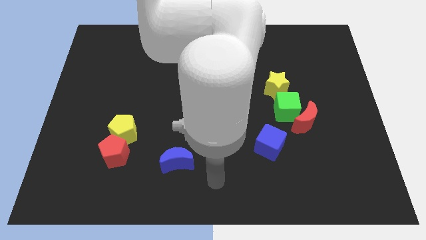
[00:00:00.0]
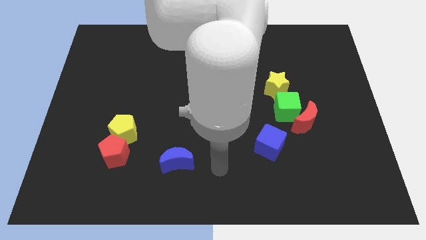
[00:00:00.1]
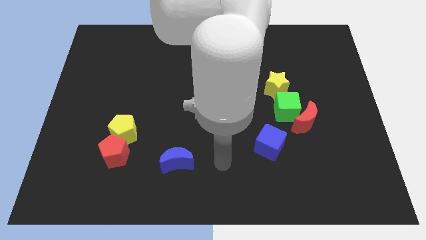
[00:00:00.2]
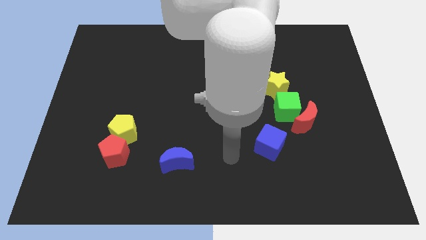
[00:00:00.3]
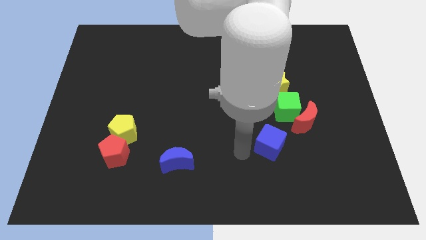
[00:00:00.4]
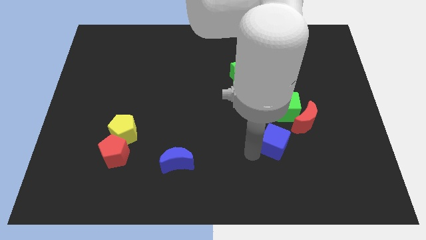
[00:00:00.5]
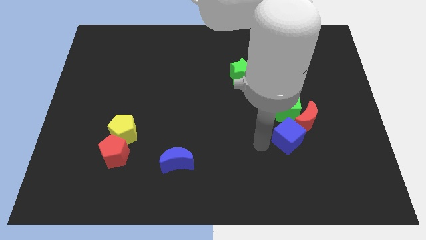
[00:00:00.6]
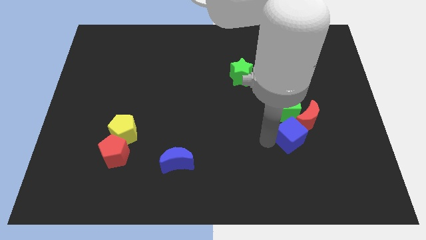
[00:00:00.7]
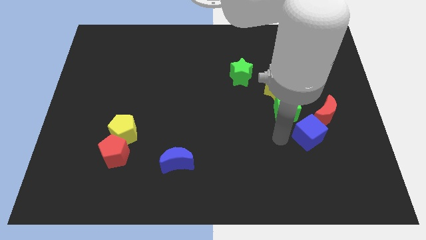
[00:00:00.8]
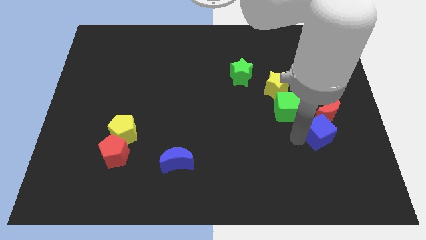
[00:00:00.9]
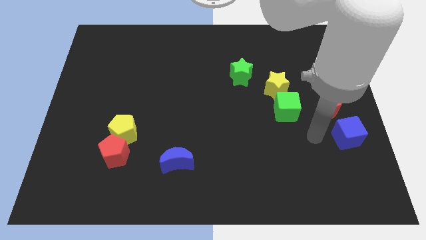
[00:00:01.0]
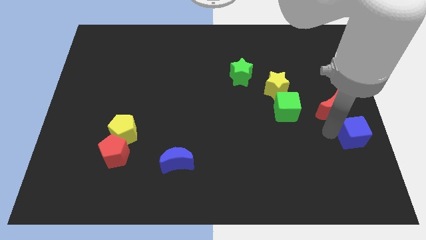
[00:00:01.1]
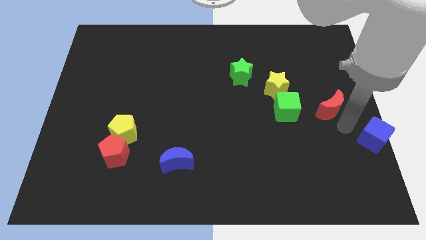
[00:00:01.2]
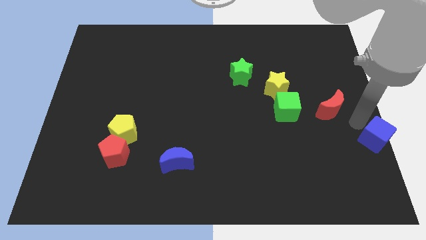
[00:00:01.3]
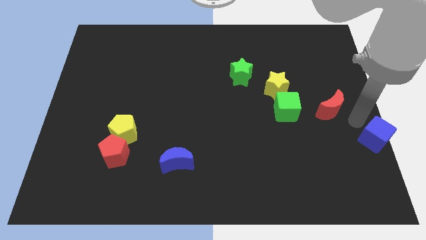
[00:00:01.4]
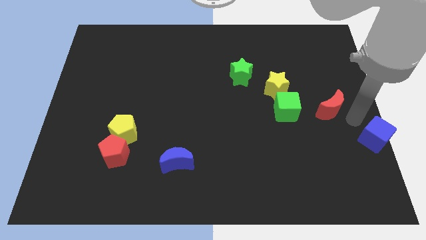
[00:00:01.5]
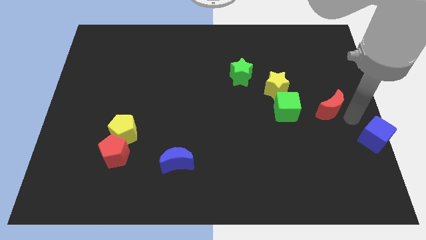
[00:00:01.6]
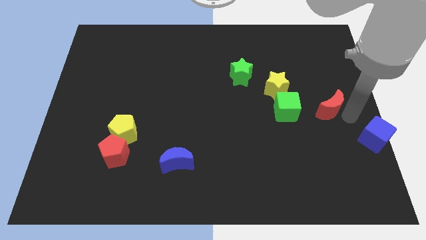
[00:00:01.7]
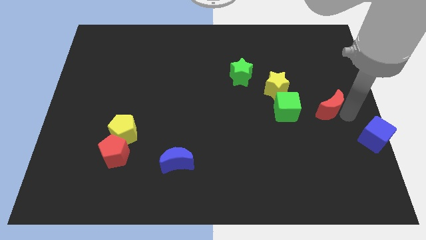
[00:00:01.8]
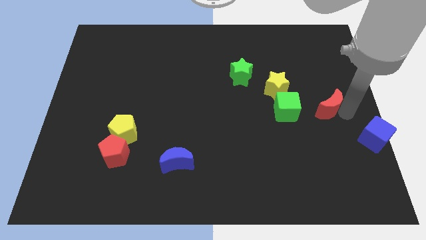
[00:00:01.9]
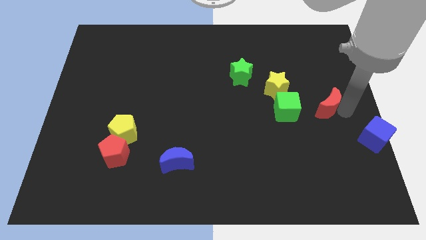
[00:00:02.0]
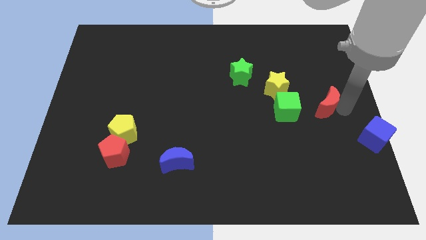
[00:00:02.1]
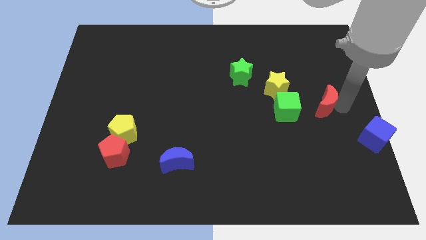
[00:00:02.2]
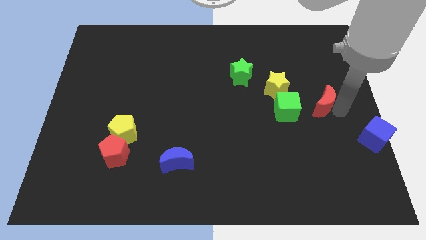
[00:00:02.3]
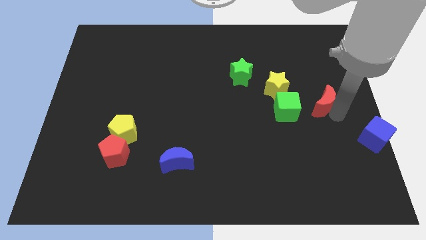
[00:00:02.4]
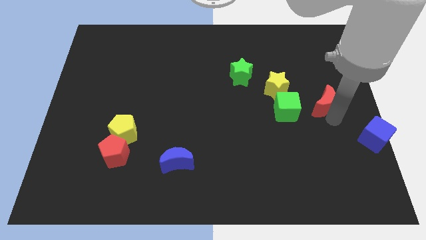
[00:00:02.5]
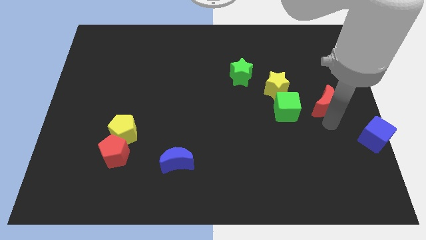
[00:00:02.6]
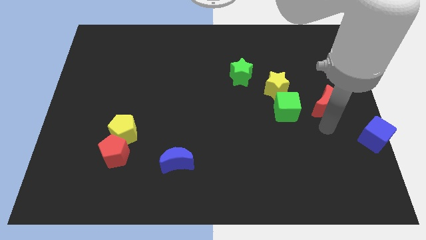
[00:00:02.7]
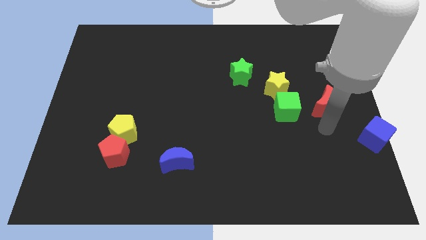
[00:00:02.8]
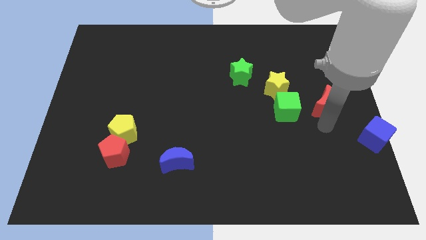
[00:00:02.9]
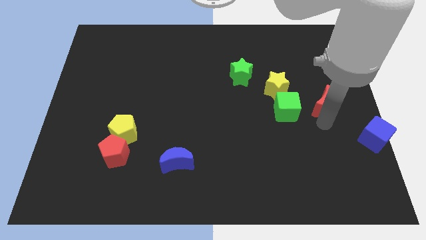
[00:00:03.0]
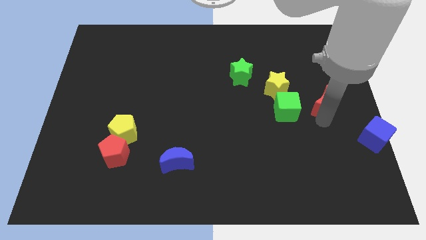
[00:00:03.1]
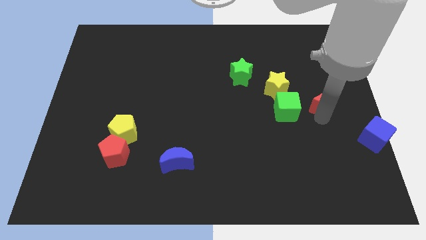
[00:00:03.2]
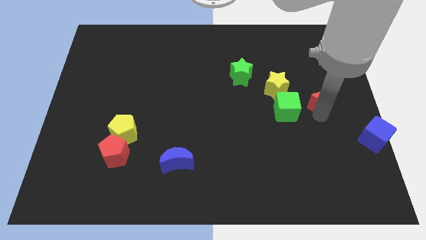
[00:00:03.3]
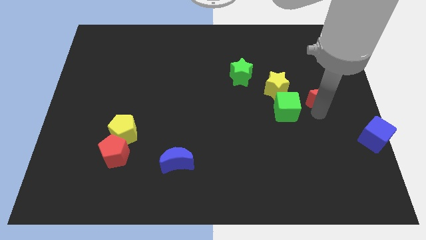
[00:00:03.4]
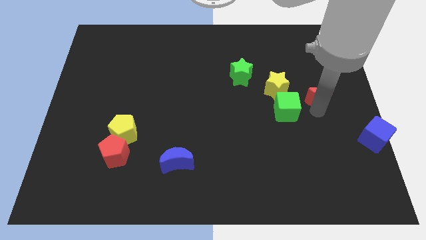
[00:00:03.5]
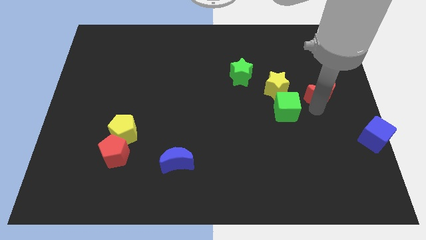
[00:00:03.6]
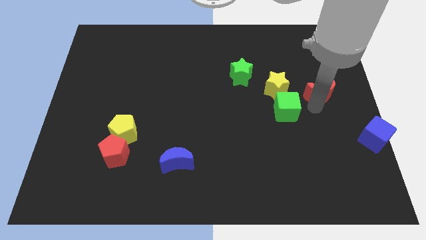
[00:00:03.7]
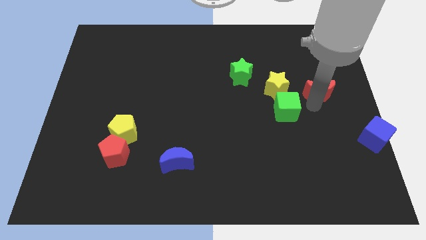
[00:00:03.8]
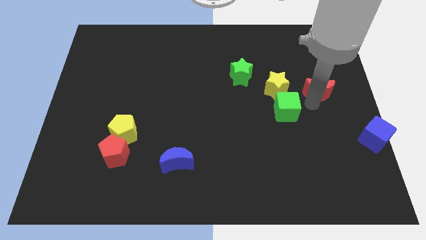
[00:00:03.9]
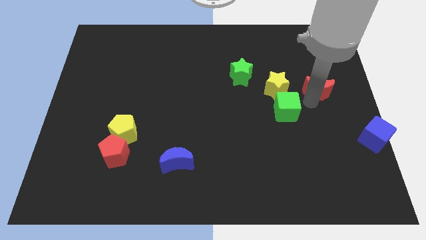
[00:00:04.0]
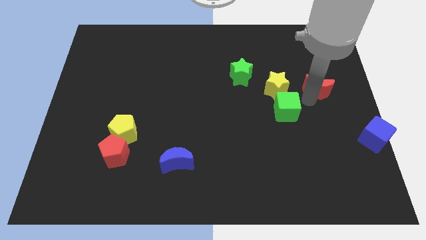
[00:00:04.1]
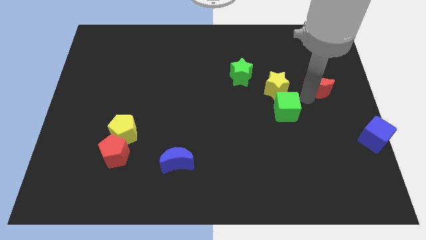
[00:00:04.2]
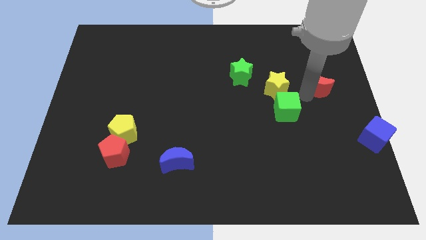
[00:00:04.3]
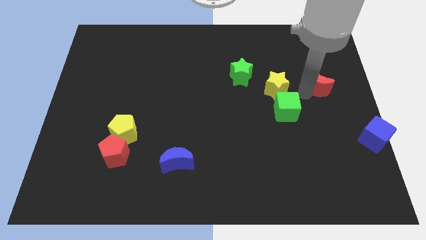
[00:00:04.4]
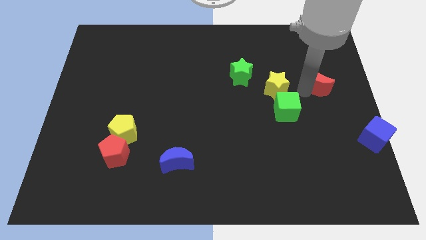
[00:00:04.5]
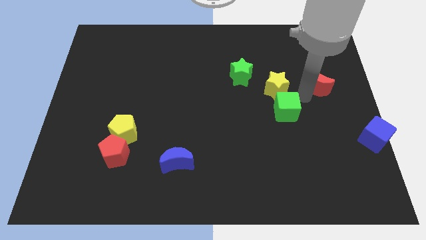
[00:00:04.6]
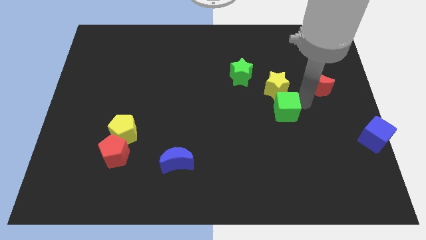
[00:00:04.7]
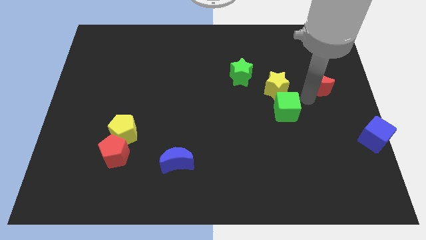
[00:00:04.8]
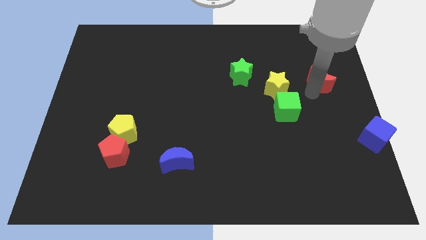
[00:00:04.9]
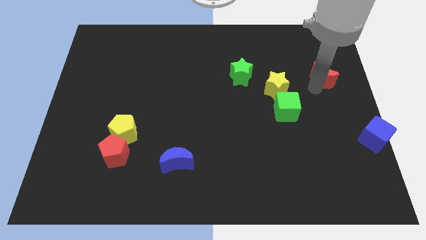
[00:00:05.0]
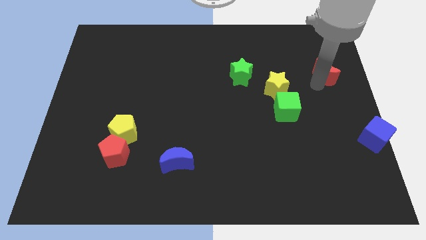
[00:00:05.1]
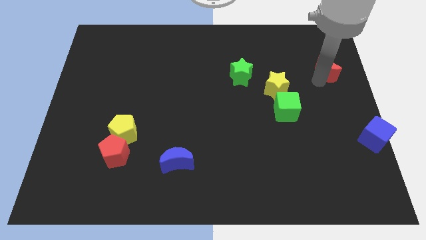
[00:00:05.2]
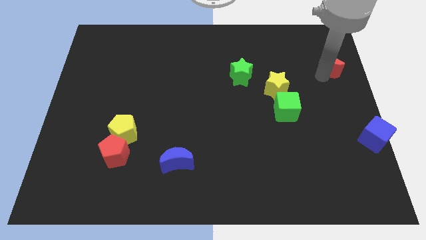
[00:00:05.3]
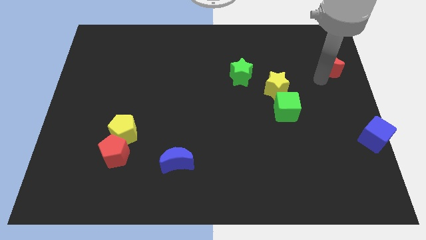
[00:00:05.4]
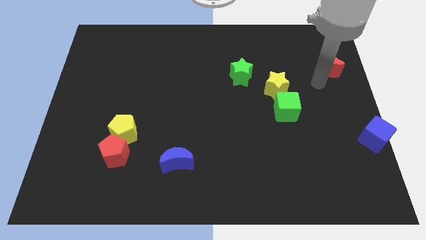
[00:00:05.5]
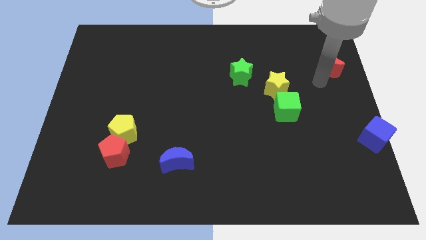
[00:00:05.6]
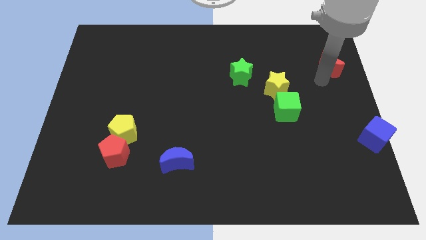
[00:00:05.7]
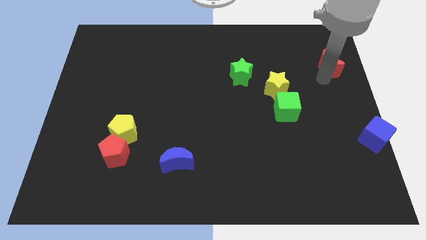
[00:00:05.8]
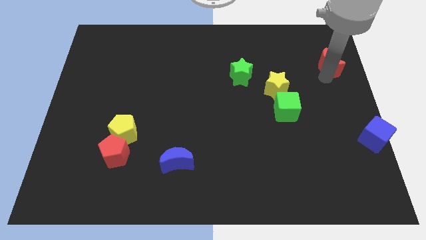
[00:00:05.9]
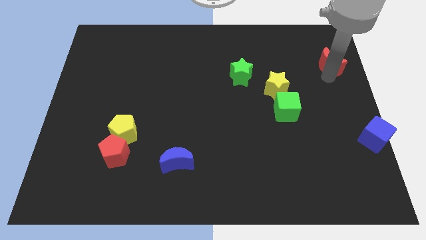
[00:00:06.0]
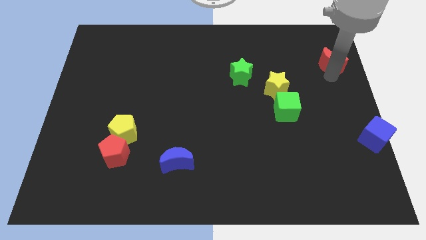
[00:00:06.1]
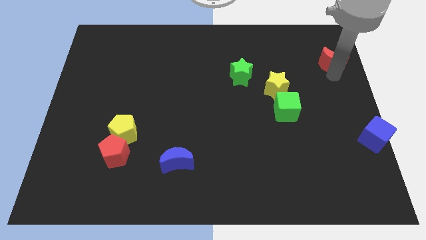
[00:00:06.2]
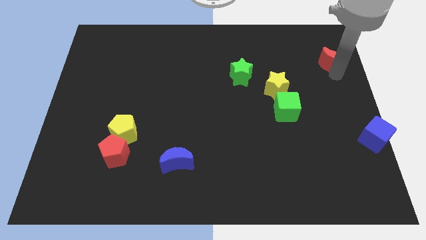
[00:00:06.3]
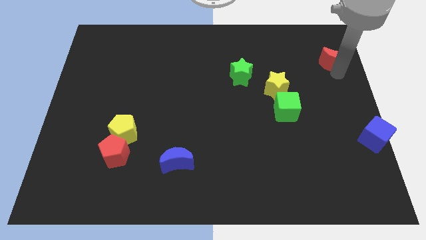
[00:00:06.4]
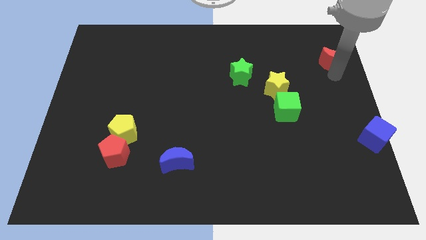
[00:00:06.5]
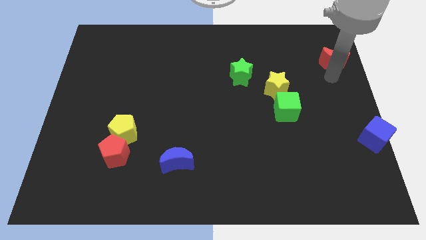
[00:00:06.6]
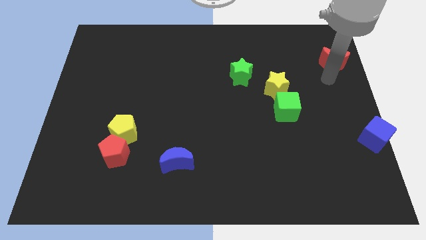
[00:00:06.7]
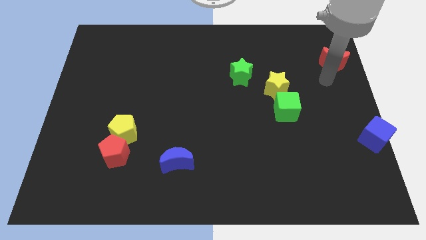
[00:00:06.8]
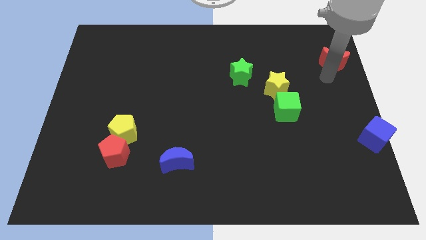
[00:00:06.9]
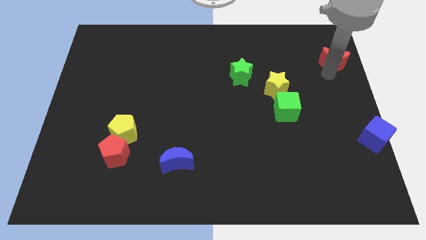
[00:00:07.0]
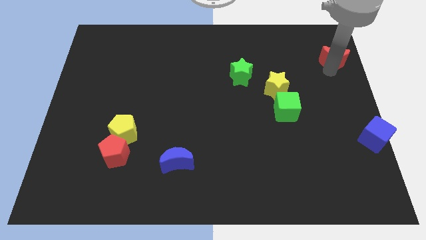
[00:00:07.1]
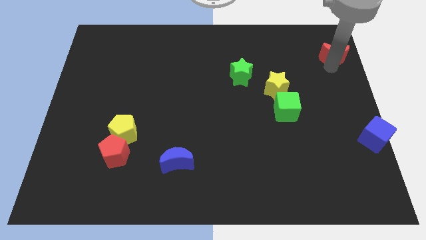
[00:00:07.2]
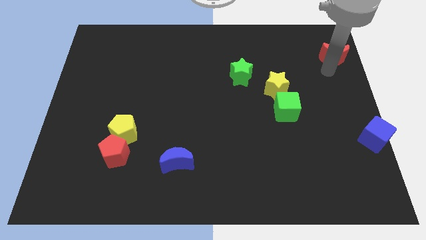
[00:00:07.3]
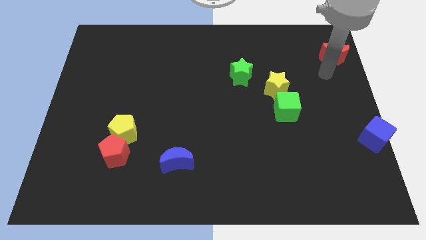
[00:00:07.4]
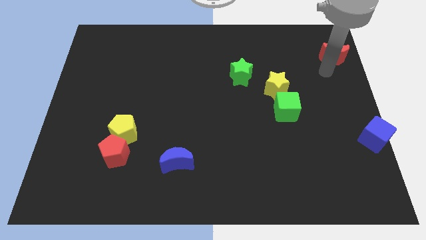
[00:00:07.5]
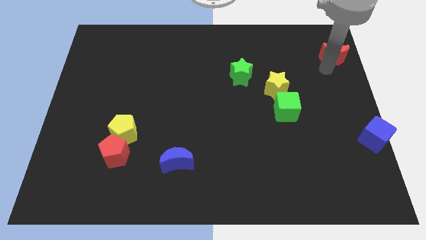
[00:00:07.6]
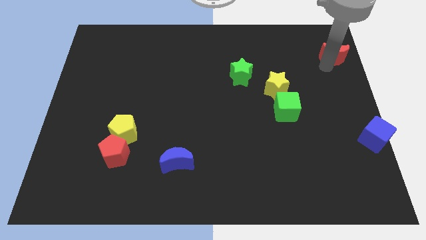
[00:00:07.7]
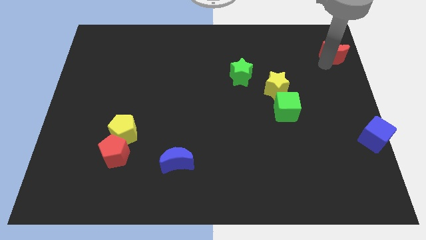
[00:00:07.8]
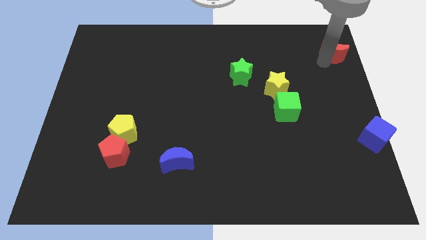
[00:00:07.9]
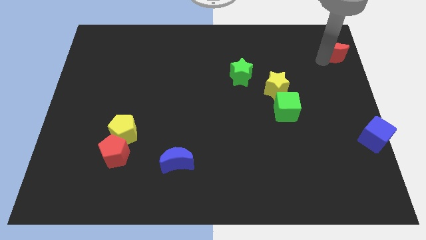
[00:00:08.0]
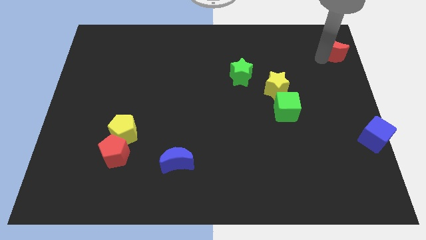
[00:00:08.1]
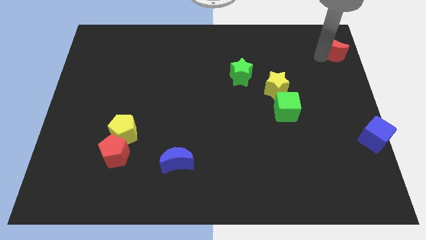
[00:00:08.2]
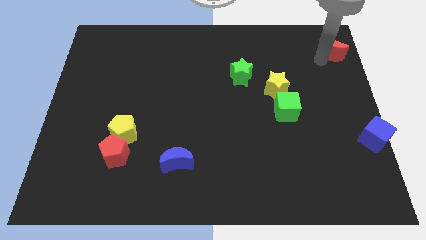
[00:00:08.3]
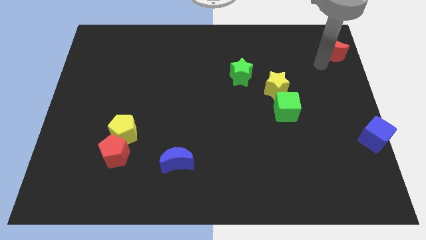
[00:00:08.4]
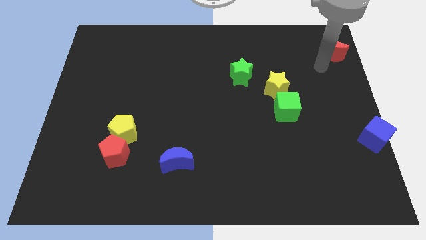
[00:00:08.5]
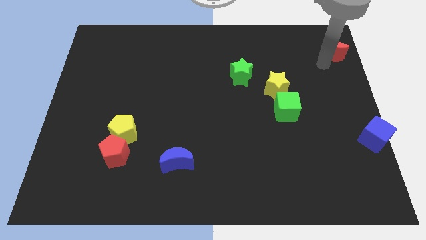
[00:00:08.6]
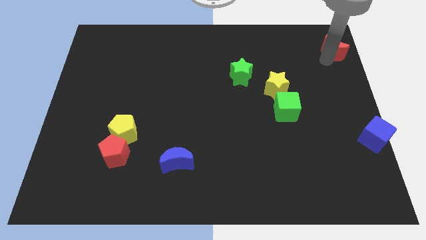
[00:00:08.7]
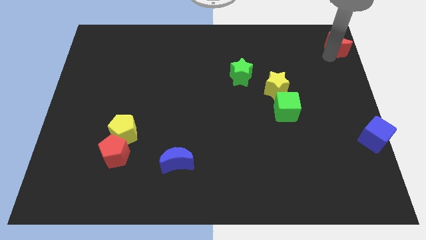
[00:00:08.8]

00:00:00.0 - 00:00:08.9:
slide the red moon to the top right
